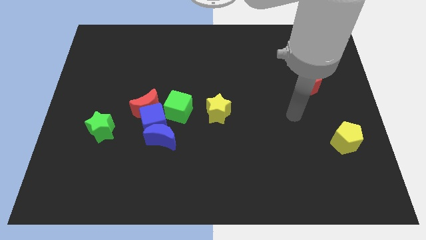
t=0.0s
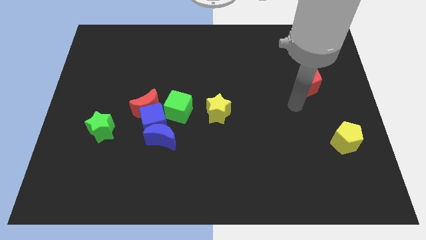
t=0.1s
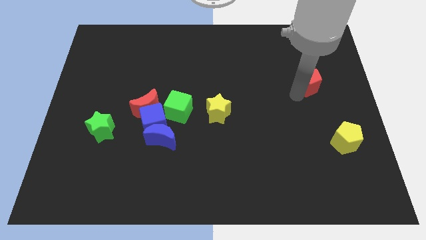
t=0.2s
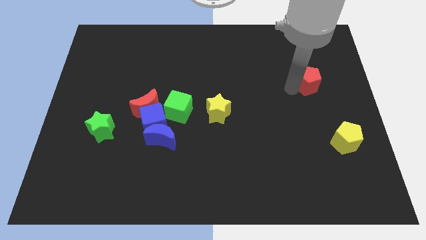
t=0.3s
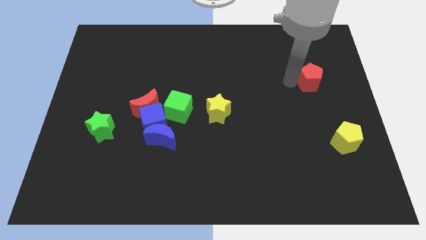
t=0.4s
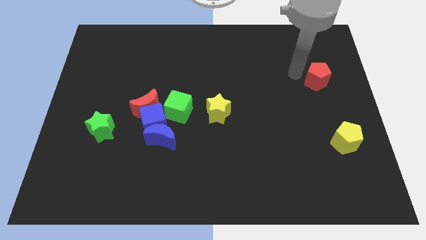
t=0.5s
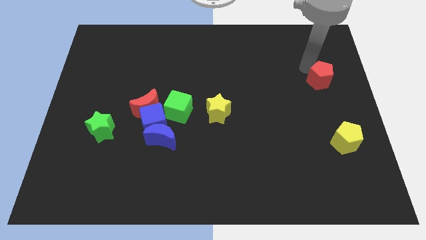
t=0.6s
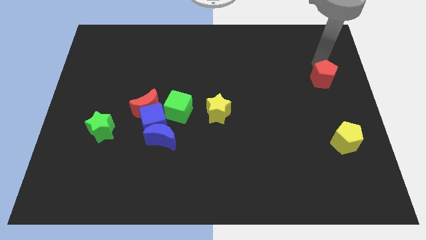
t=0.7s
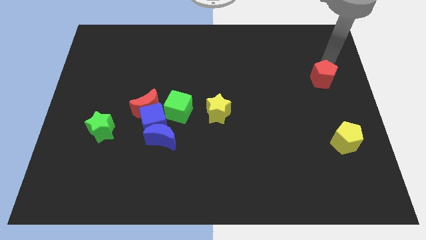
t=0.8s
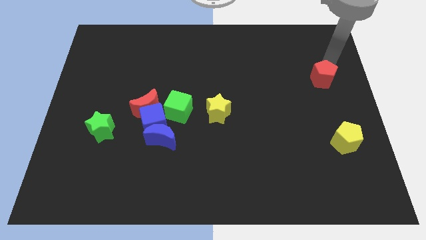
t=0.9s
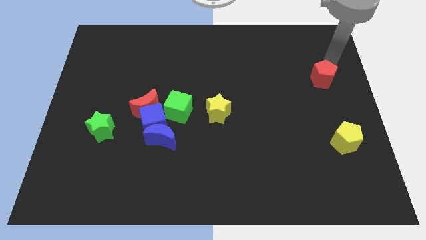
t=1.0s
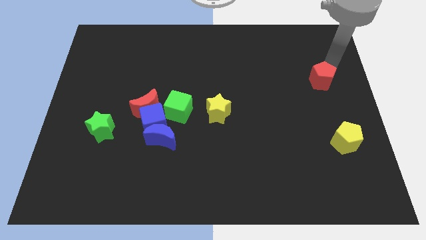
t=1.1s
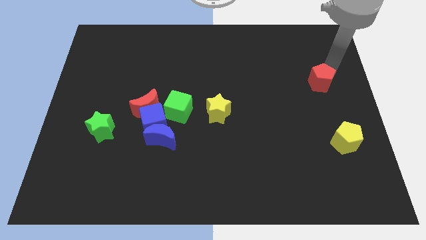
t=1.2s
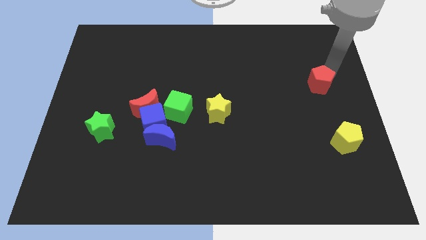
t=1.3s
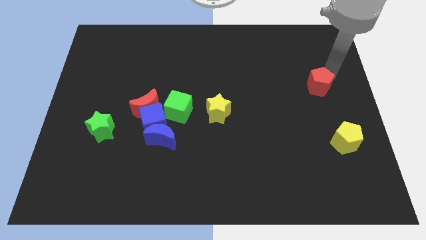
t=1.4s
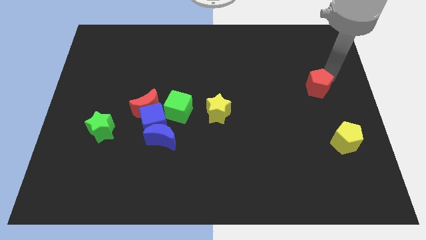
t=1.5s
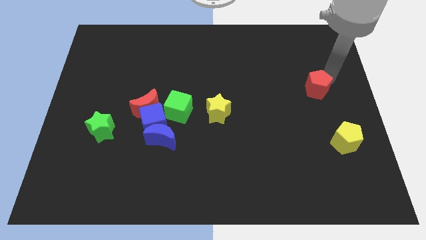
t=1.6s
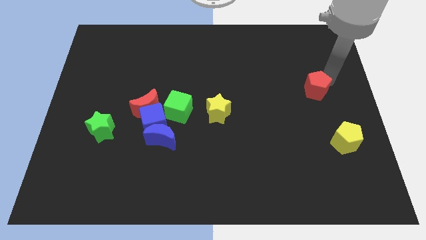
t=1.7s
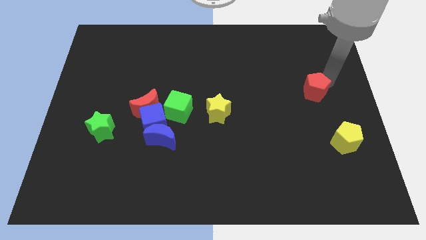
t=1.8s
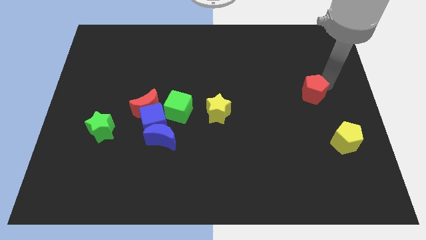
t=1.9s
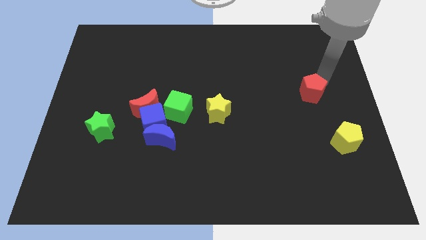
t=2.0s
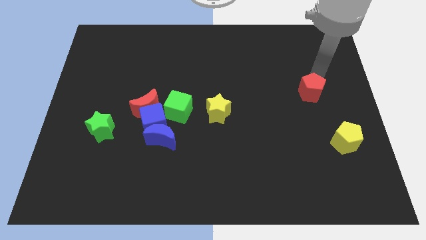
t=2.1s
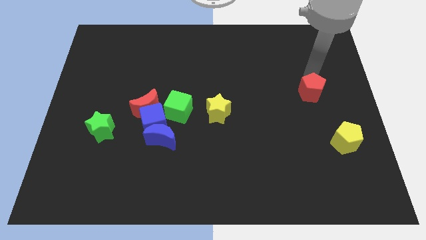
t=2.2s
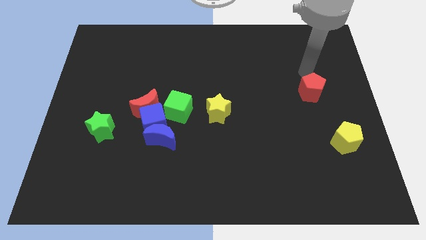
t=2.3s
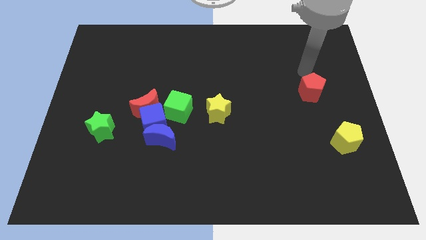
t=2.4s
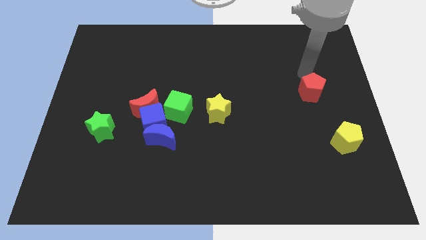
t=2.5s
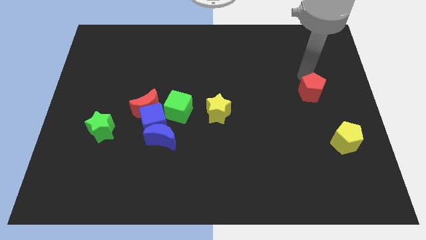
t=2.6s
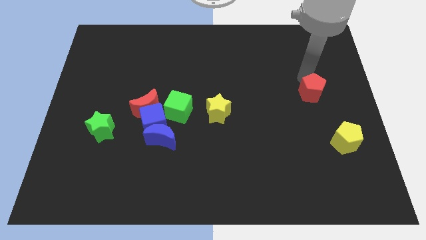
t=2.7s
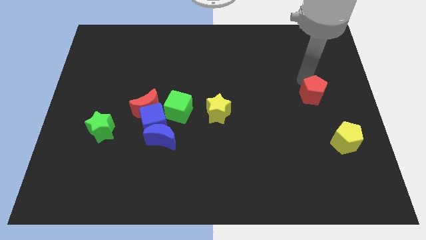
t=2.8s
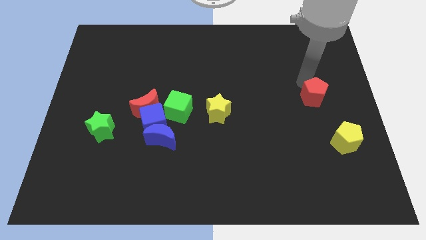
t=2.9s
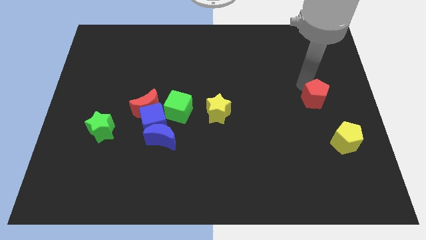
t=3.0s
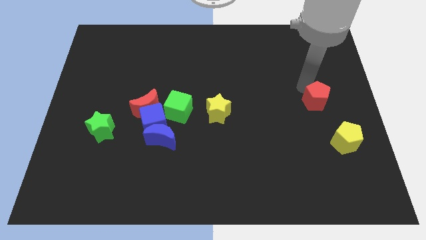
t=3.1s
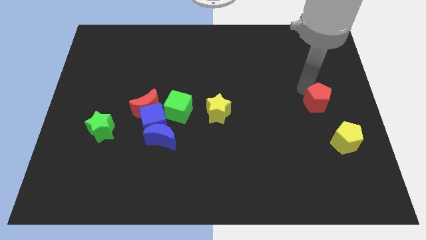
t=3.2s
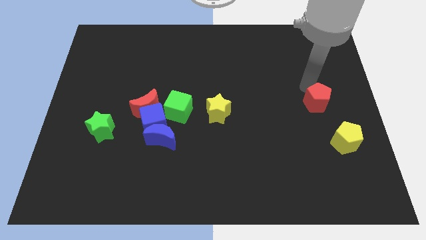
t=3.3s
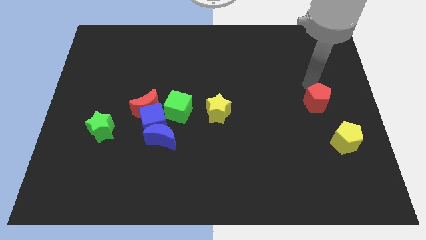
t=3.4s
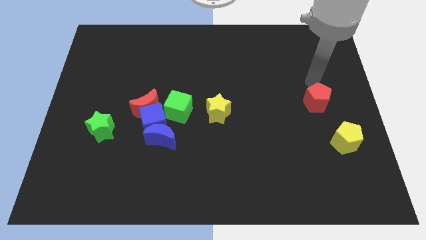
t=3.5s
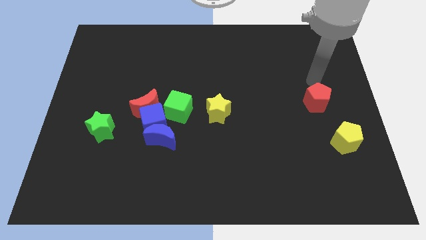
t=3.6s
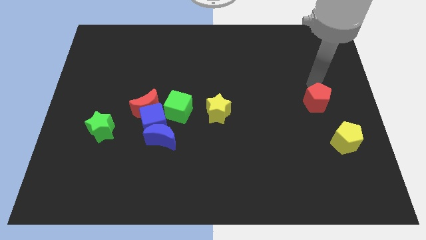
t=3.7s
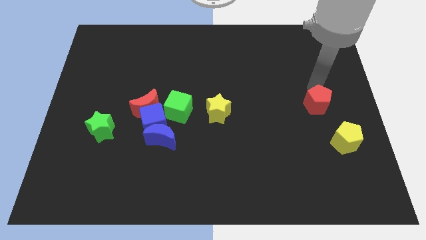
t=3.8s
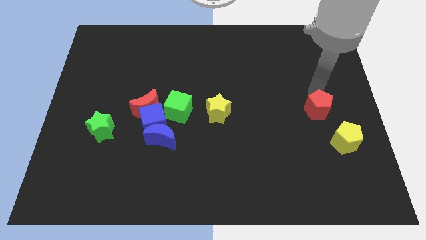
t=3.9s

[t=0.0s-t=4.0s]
push the red pentagon down slightly

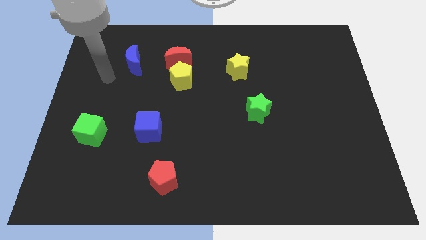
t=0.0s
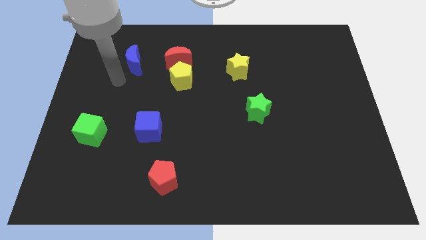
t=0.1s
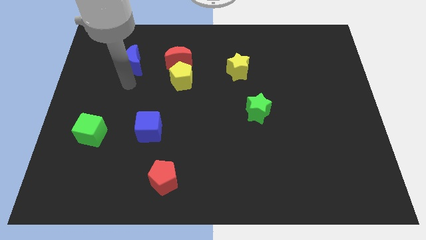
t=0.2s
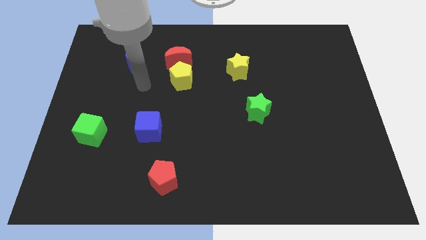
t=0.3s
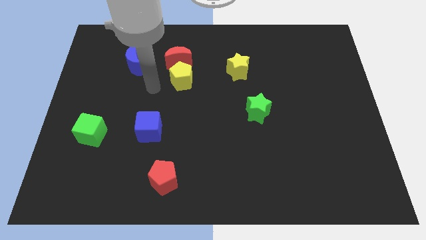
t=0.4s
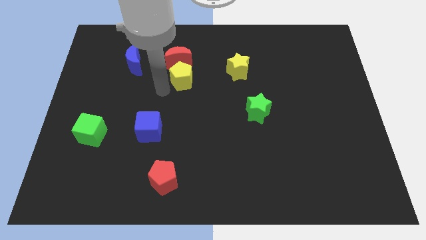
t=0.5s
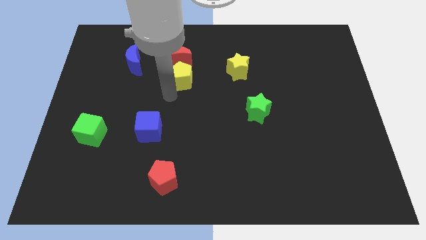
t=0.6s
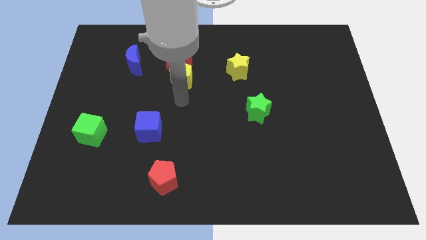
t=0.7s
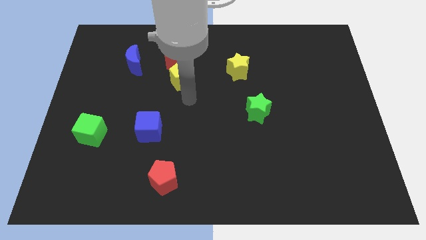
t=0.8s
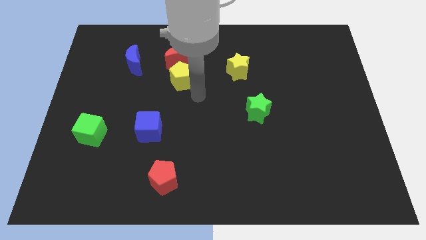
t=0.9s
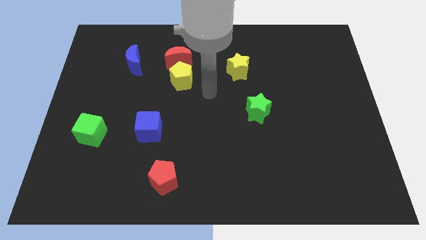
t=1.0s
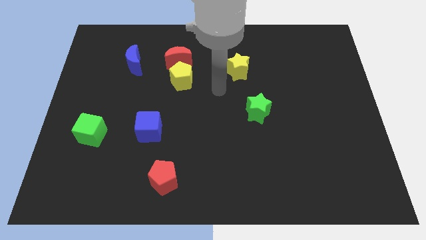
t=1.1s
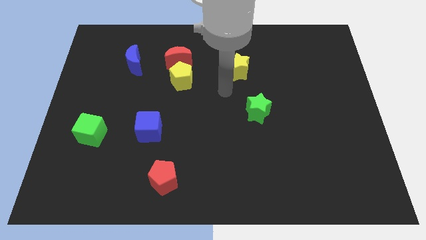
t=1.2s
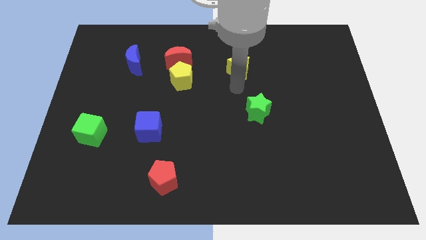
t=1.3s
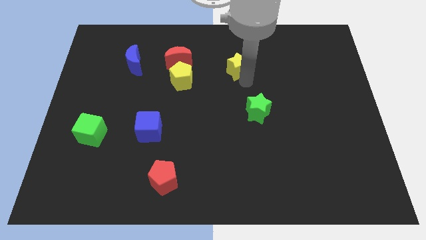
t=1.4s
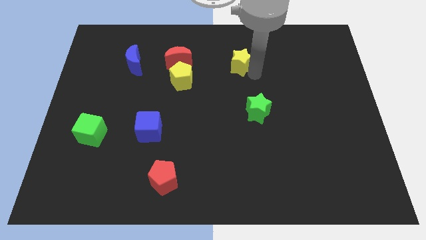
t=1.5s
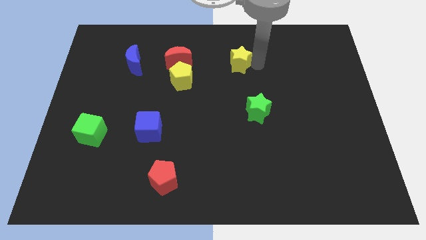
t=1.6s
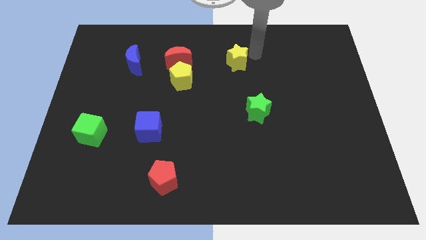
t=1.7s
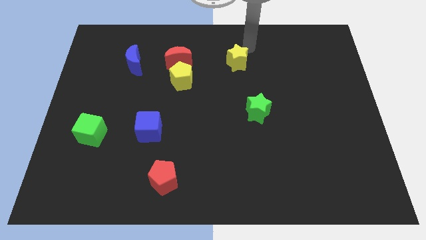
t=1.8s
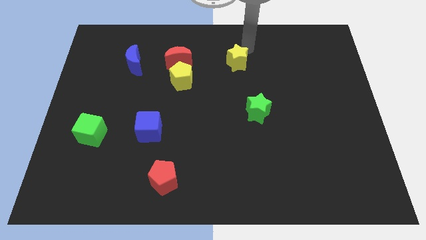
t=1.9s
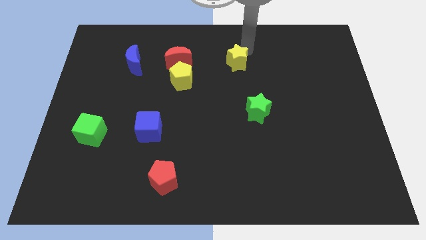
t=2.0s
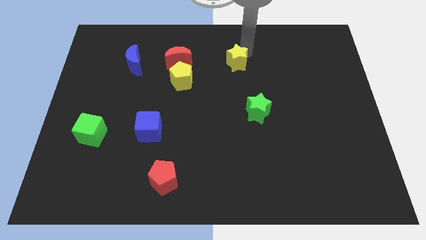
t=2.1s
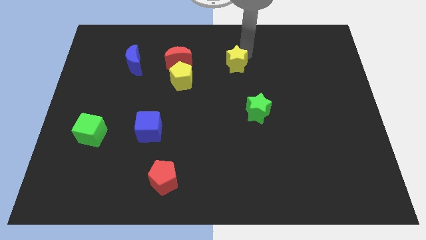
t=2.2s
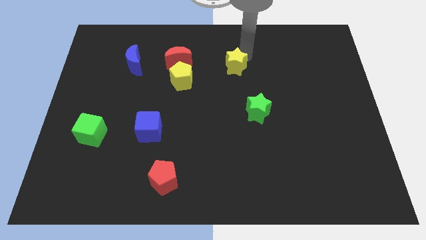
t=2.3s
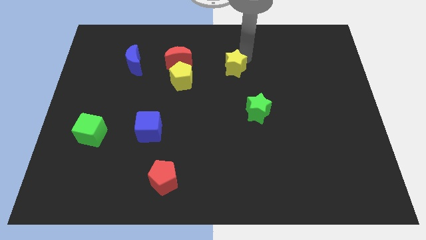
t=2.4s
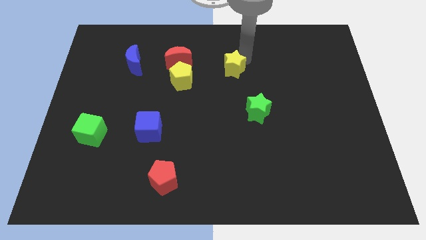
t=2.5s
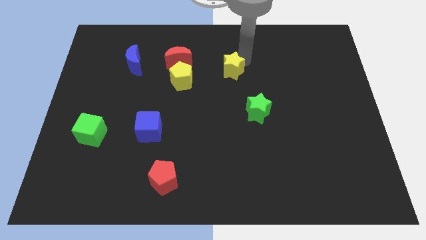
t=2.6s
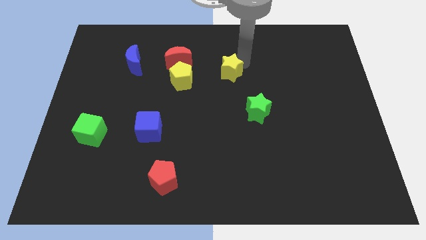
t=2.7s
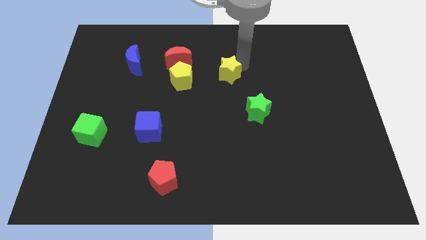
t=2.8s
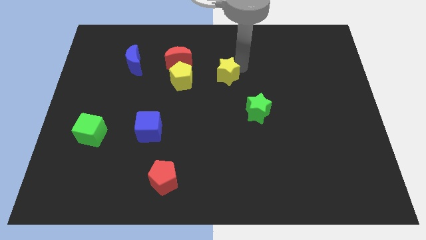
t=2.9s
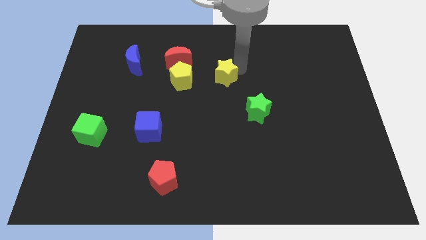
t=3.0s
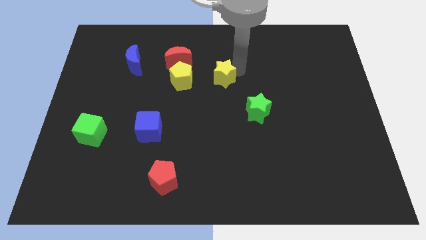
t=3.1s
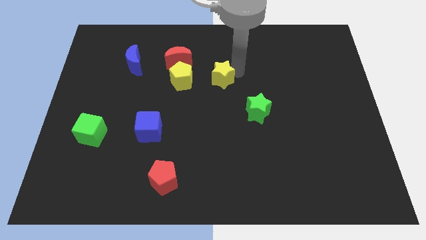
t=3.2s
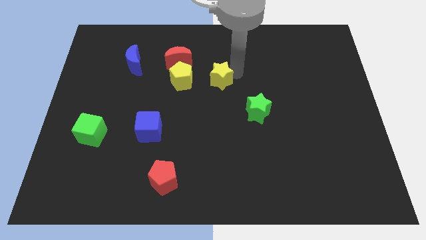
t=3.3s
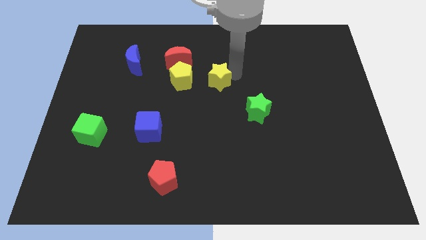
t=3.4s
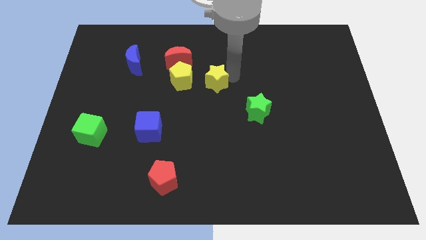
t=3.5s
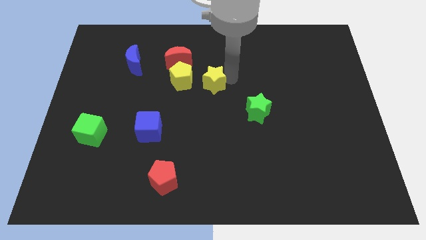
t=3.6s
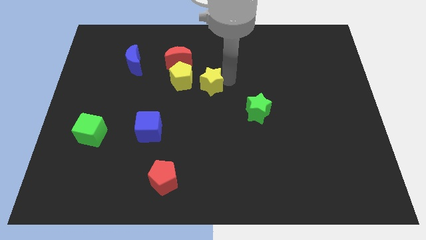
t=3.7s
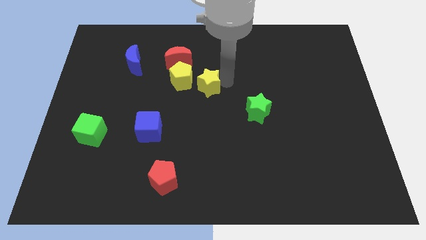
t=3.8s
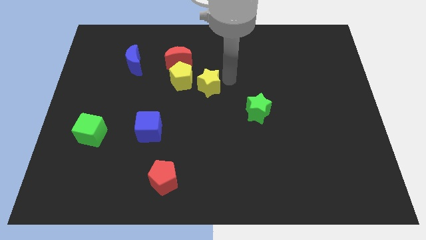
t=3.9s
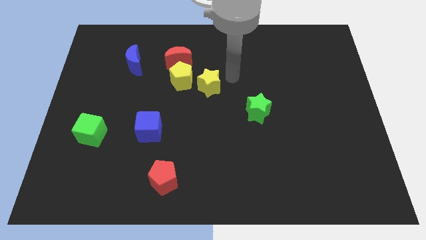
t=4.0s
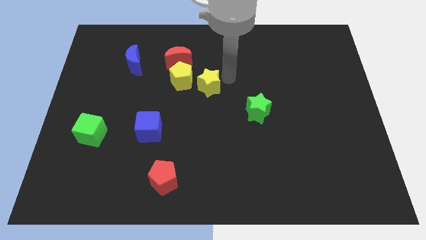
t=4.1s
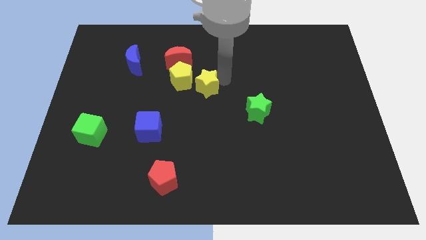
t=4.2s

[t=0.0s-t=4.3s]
move the yellow star a bit left
